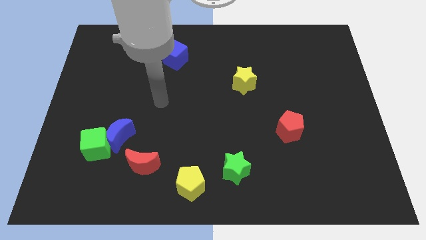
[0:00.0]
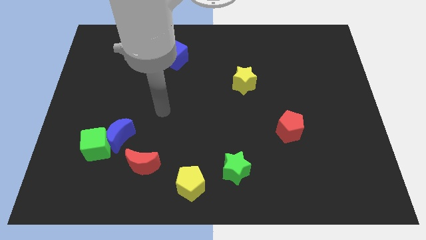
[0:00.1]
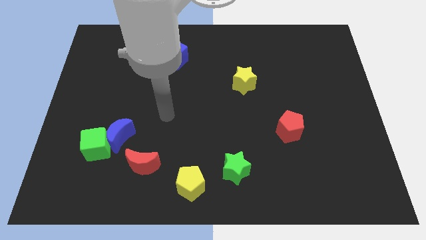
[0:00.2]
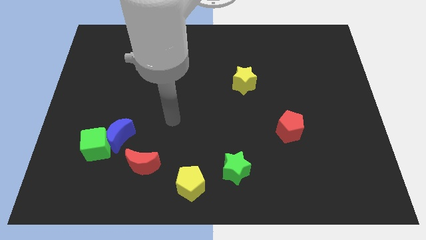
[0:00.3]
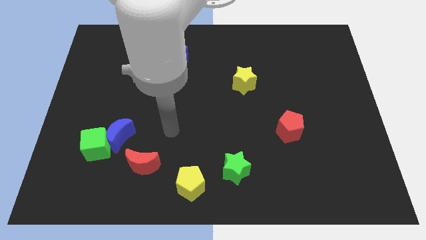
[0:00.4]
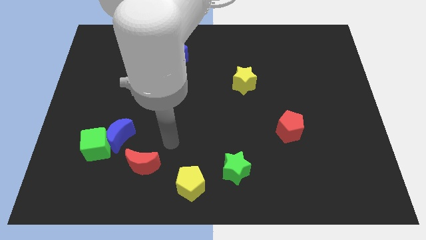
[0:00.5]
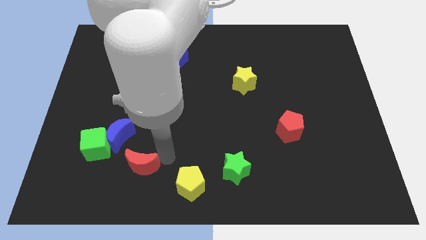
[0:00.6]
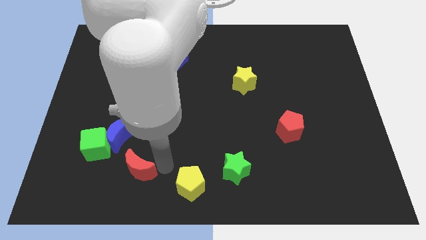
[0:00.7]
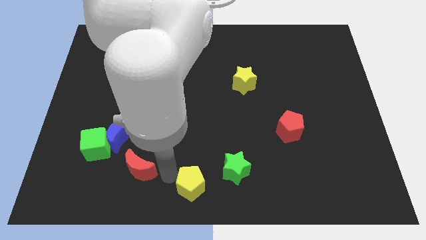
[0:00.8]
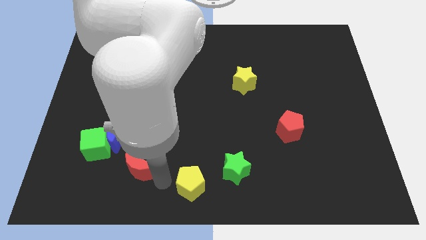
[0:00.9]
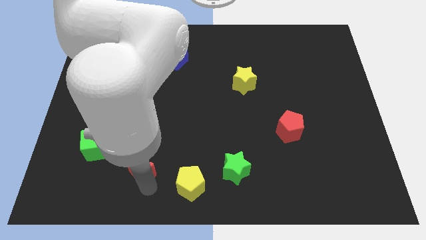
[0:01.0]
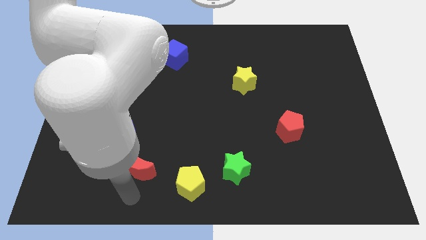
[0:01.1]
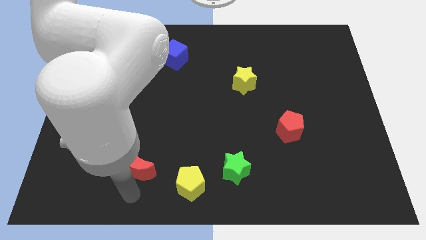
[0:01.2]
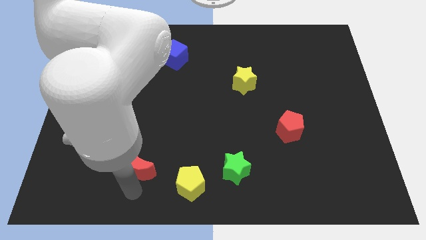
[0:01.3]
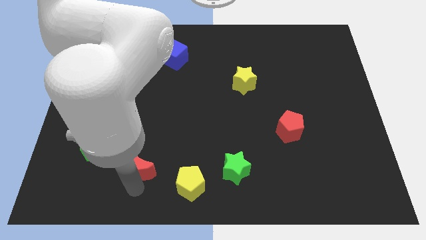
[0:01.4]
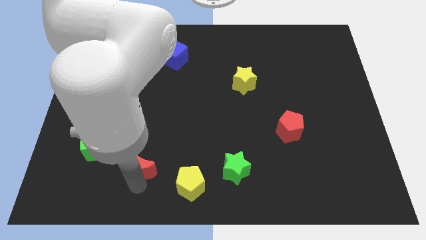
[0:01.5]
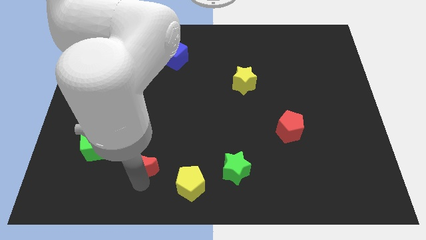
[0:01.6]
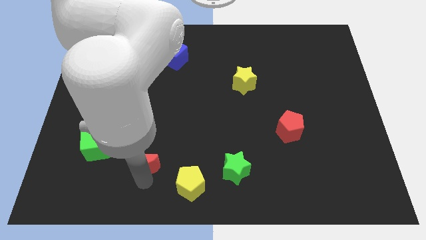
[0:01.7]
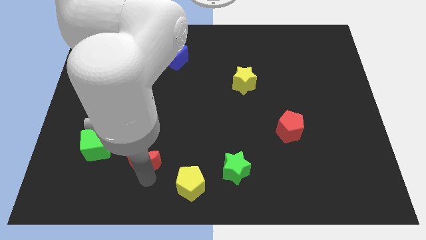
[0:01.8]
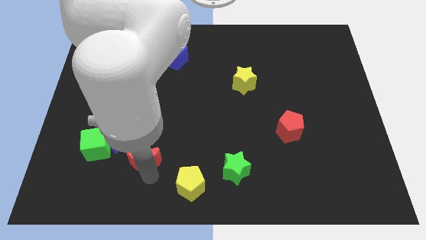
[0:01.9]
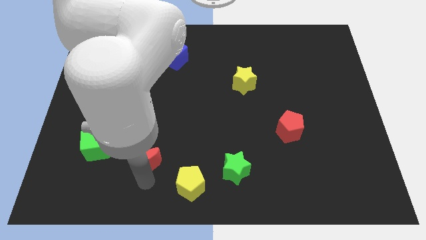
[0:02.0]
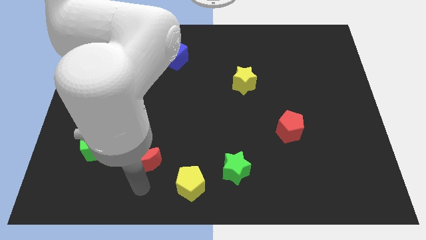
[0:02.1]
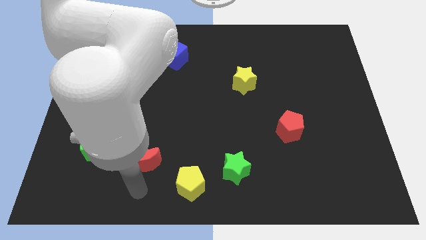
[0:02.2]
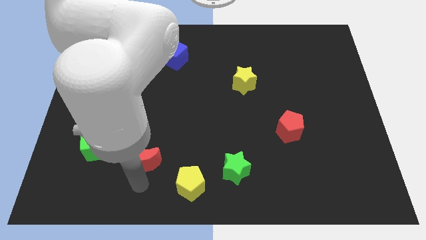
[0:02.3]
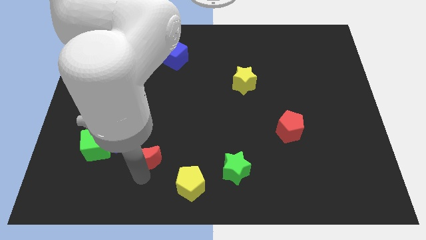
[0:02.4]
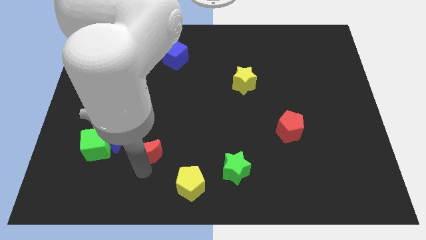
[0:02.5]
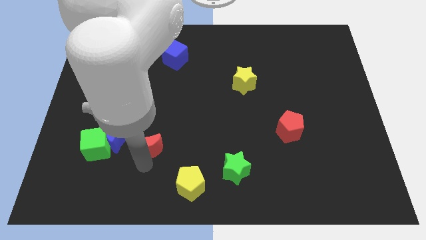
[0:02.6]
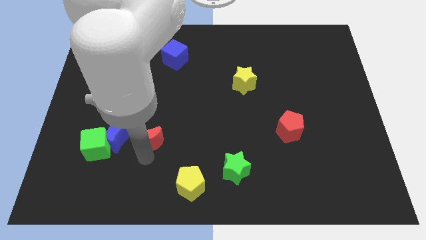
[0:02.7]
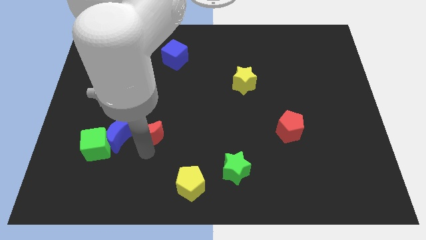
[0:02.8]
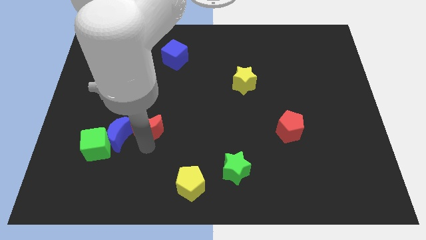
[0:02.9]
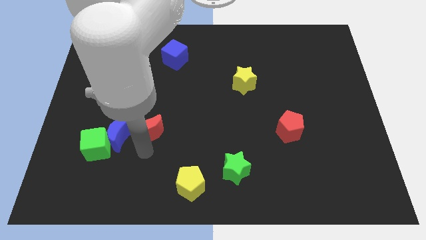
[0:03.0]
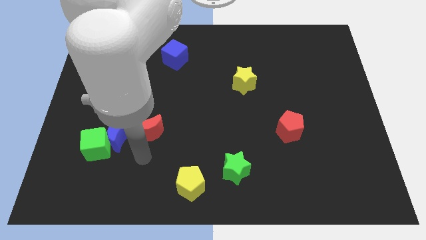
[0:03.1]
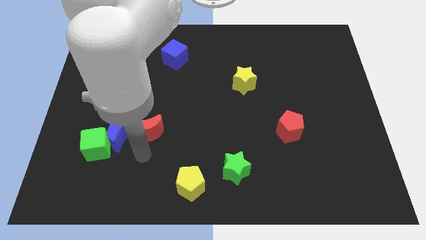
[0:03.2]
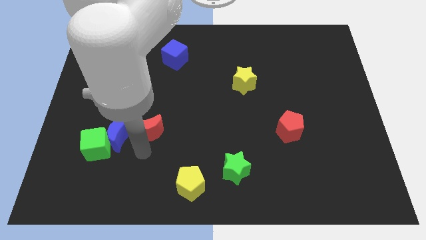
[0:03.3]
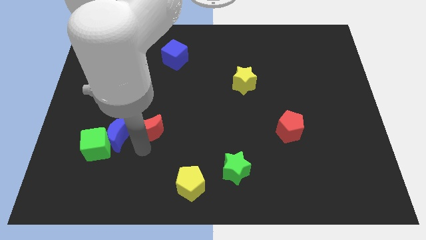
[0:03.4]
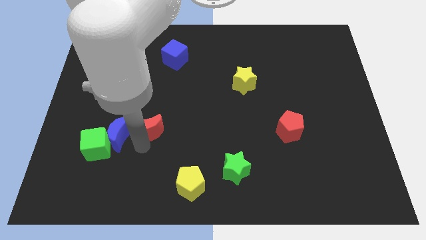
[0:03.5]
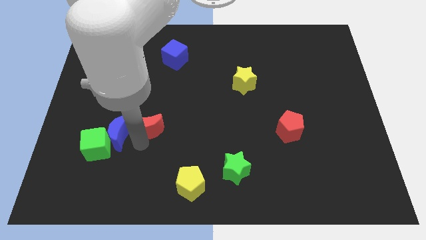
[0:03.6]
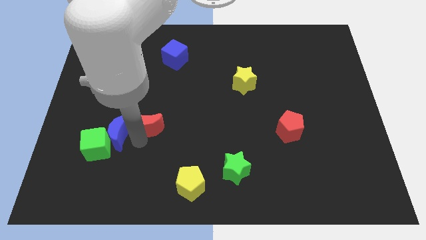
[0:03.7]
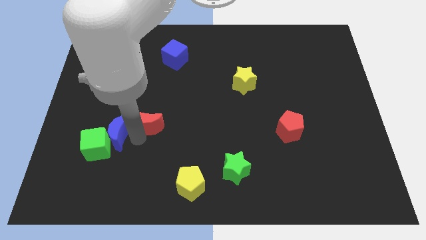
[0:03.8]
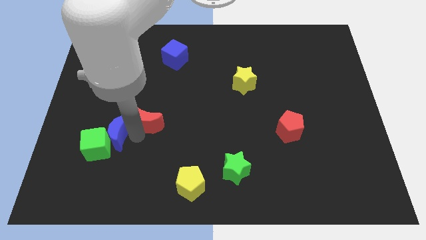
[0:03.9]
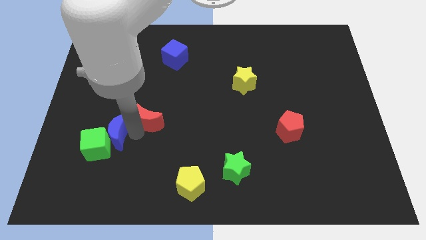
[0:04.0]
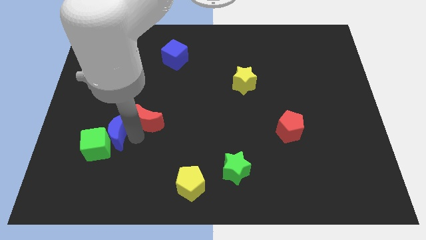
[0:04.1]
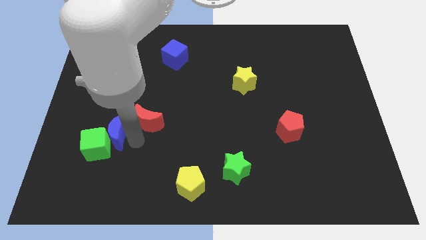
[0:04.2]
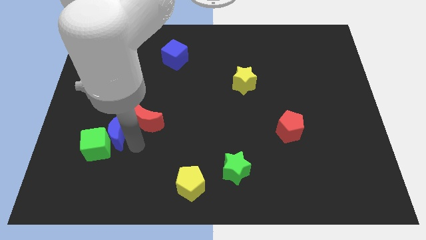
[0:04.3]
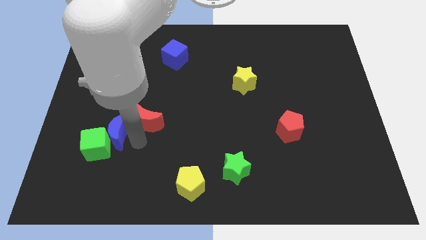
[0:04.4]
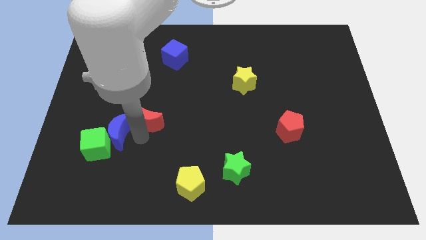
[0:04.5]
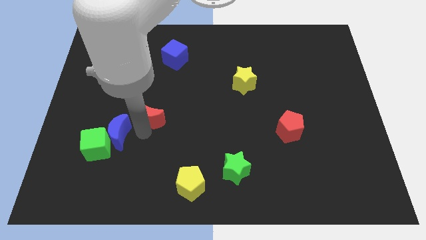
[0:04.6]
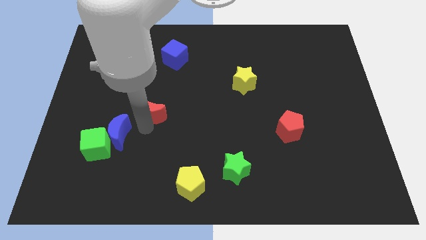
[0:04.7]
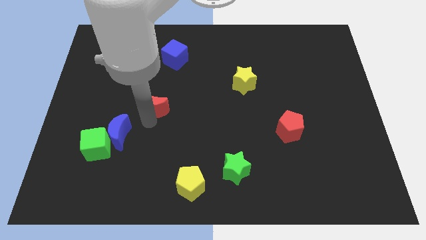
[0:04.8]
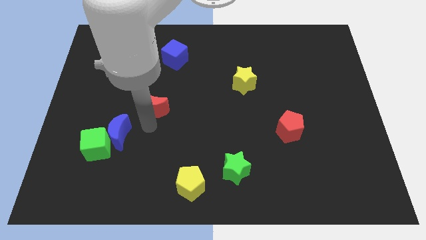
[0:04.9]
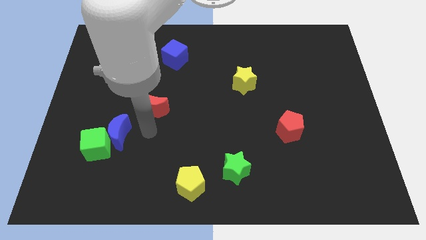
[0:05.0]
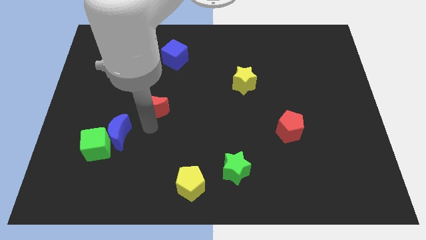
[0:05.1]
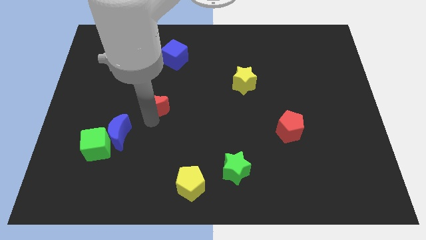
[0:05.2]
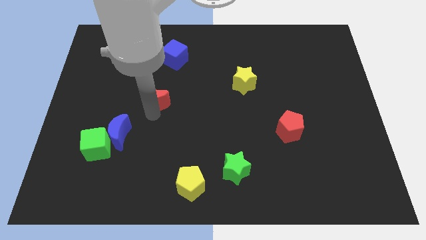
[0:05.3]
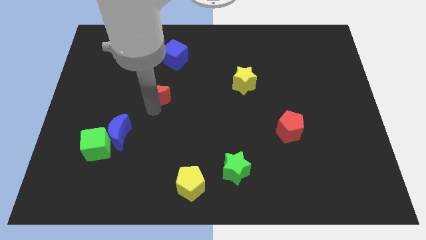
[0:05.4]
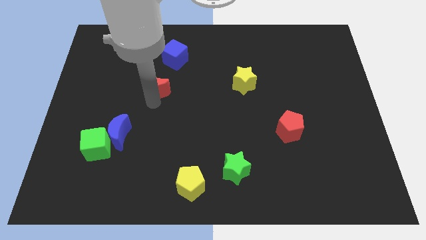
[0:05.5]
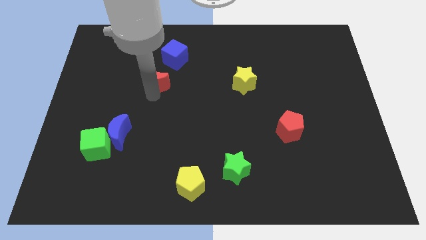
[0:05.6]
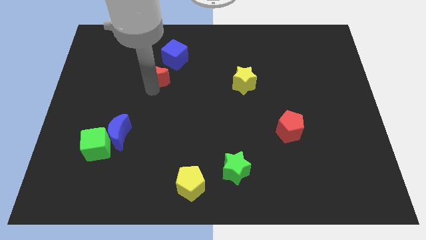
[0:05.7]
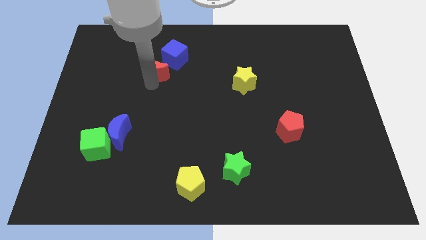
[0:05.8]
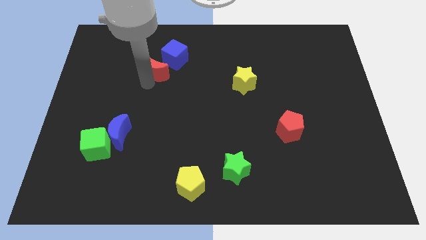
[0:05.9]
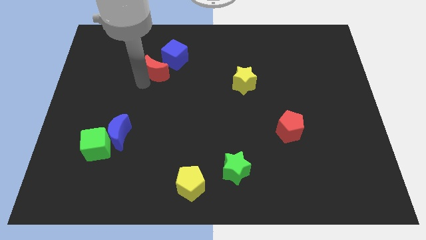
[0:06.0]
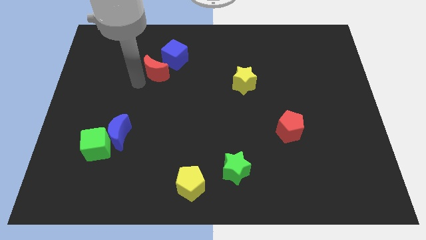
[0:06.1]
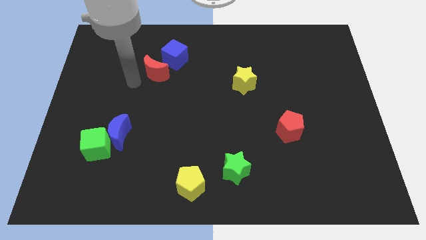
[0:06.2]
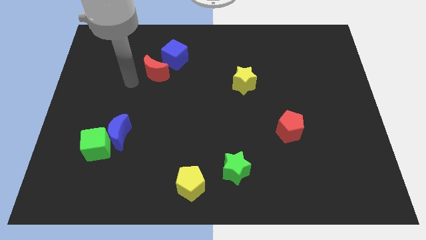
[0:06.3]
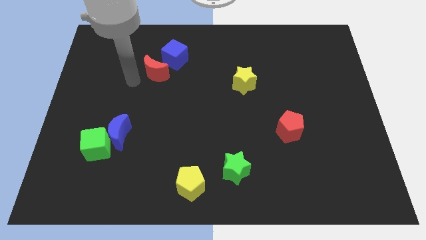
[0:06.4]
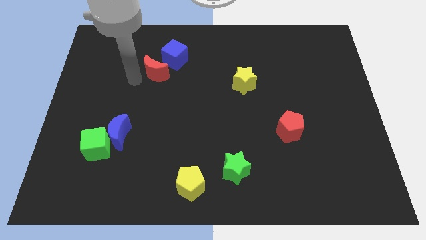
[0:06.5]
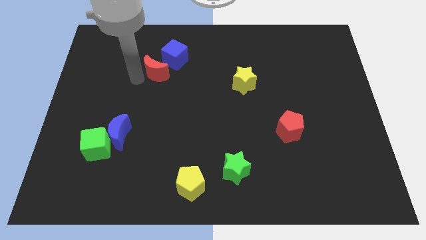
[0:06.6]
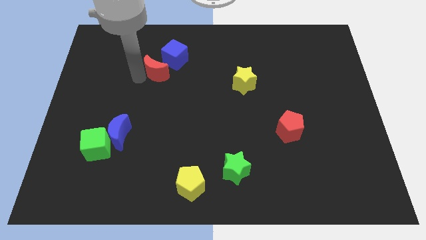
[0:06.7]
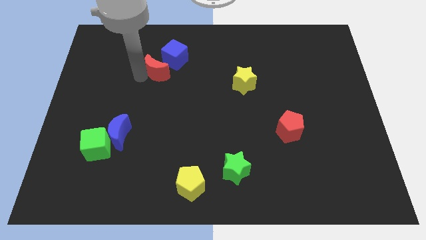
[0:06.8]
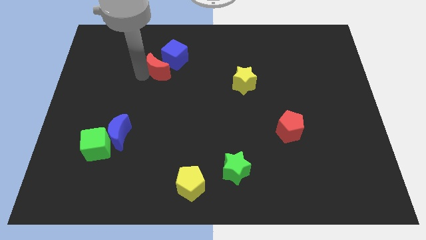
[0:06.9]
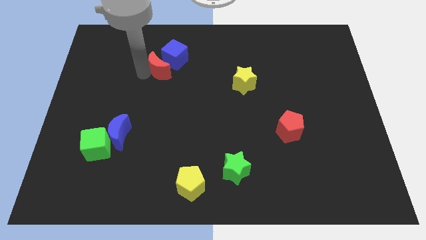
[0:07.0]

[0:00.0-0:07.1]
push the red moon next to the blue cube

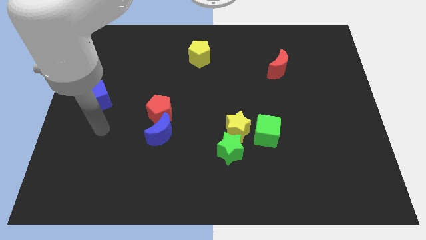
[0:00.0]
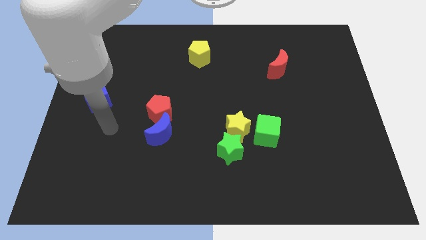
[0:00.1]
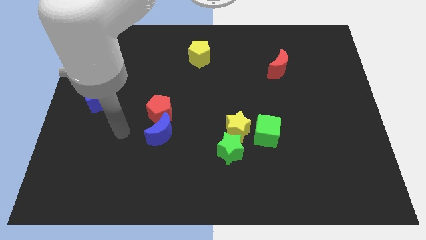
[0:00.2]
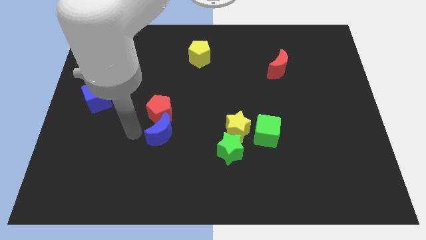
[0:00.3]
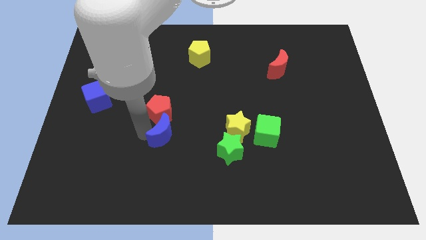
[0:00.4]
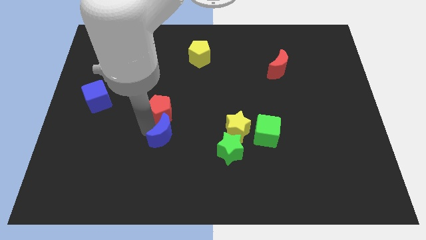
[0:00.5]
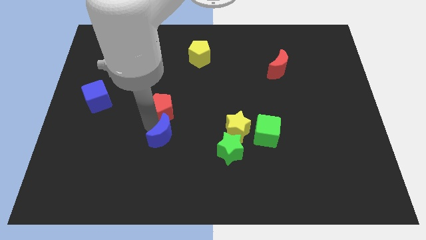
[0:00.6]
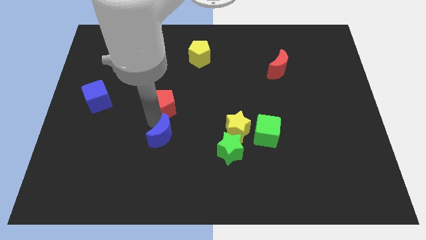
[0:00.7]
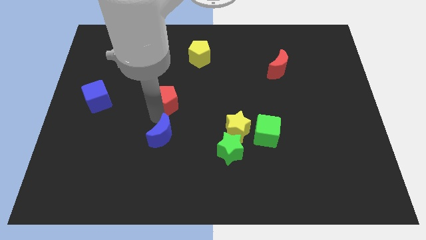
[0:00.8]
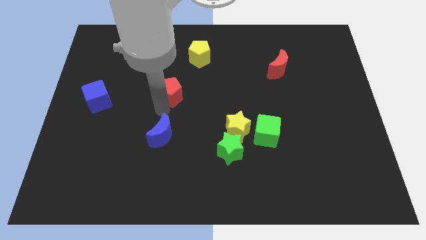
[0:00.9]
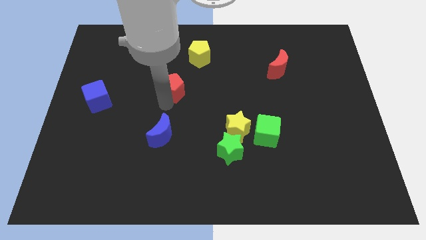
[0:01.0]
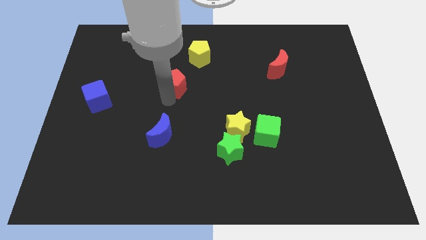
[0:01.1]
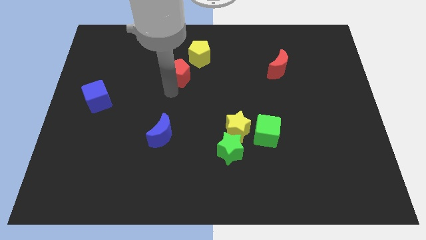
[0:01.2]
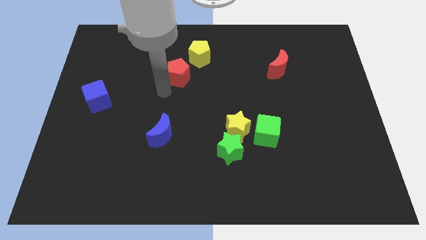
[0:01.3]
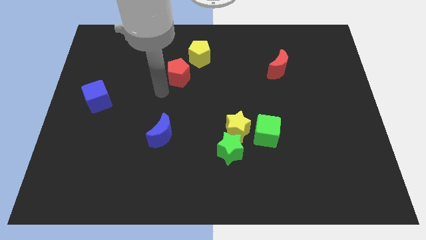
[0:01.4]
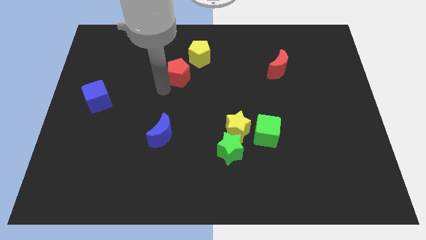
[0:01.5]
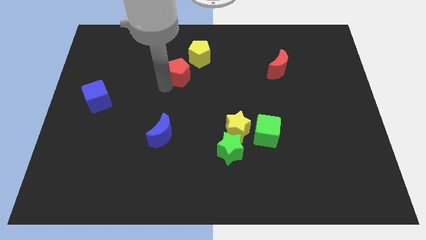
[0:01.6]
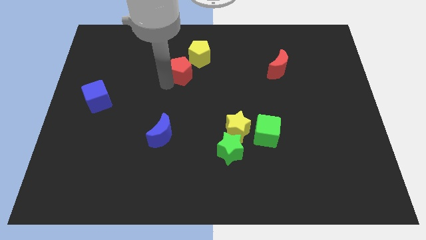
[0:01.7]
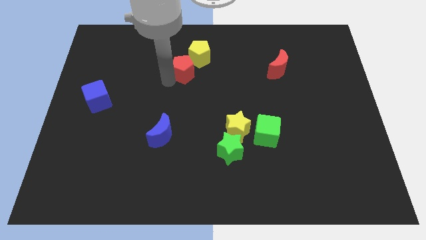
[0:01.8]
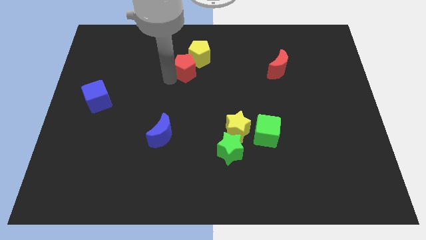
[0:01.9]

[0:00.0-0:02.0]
put the red pentagon close to the yellow pentagon
